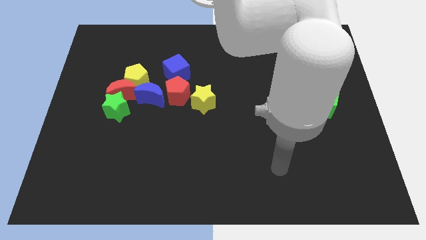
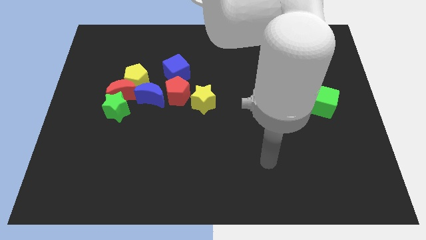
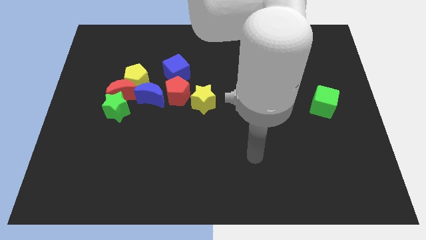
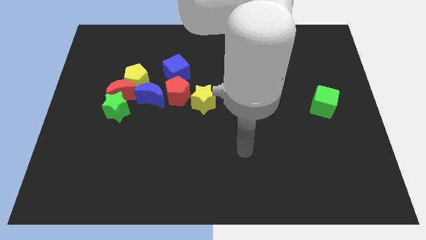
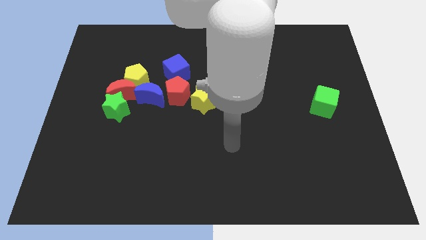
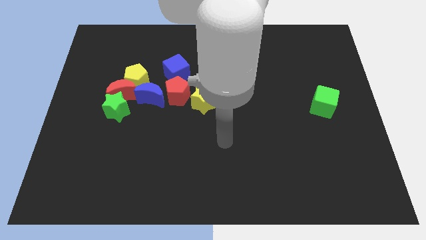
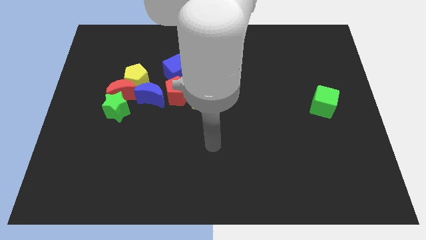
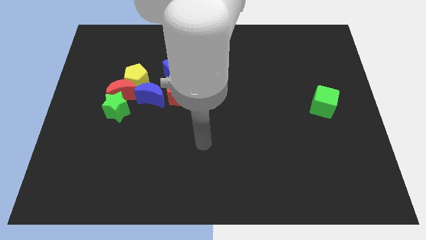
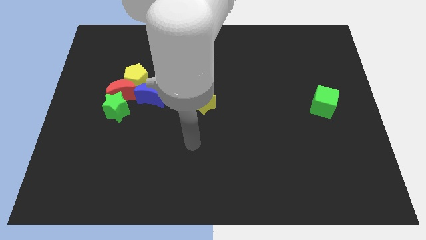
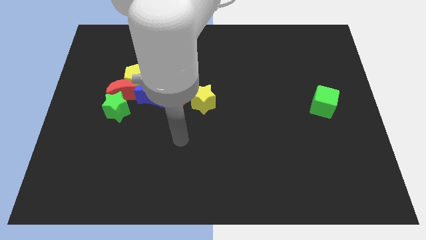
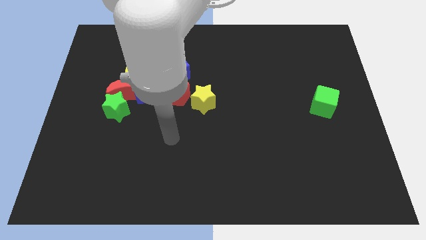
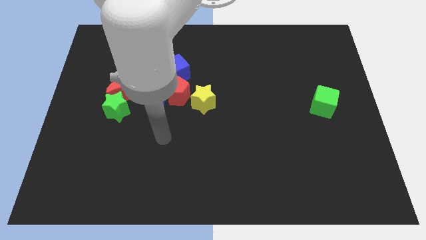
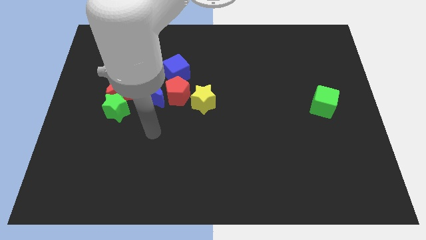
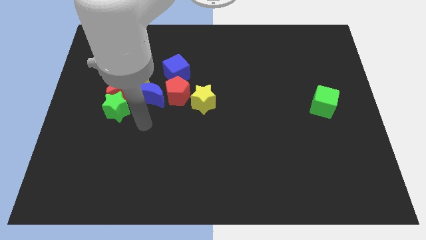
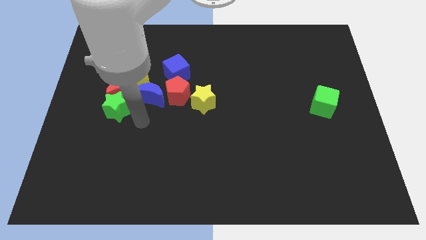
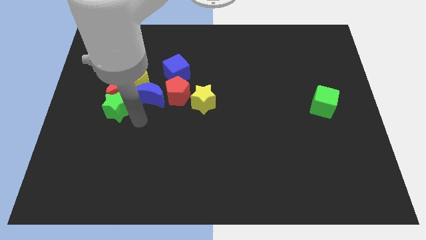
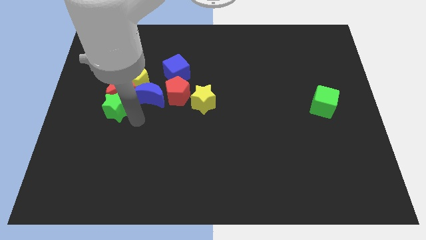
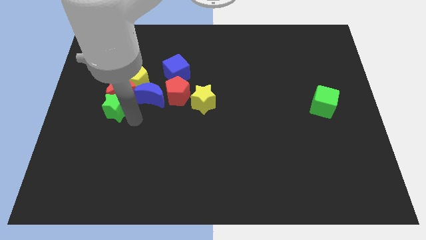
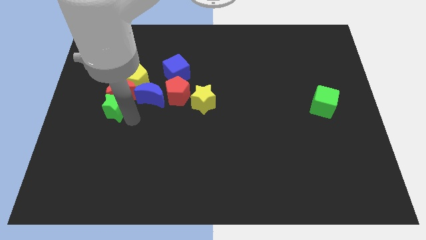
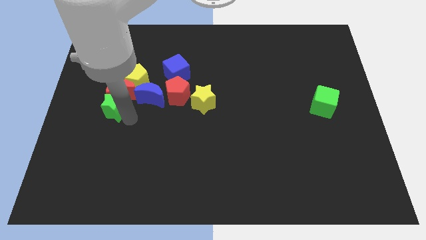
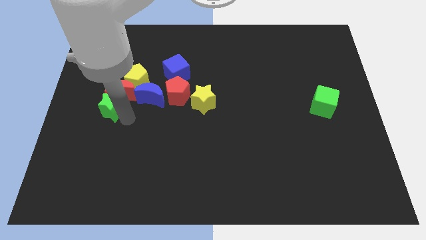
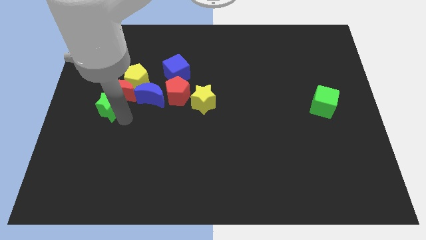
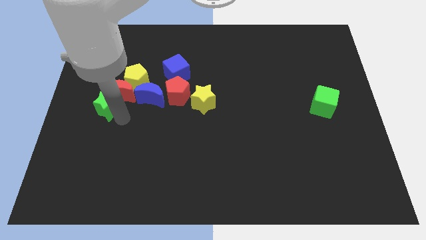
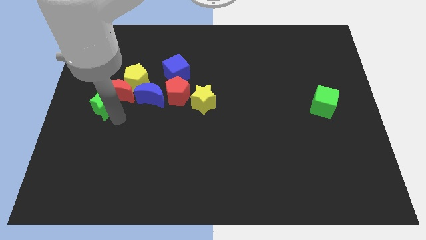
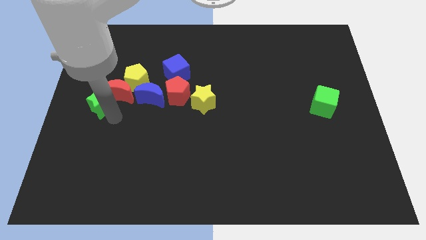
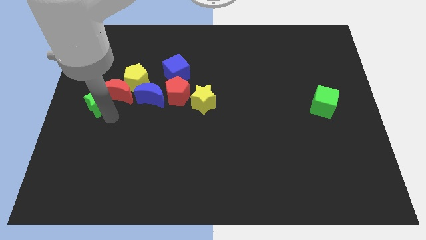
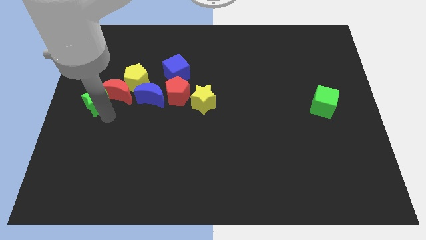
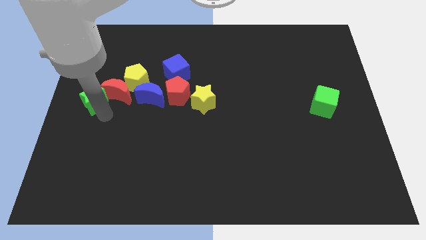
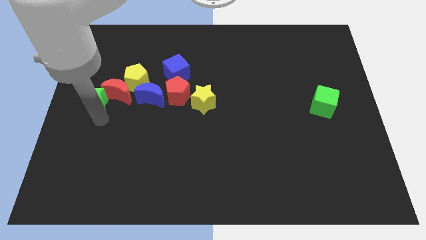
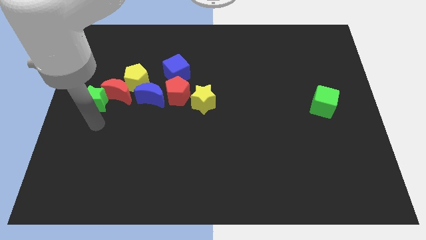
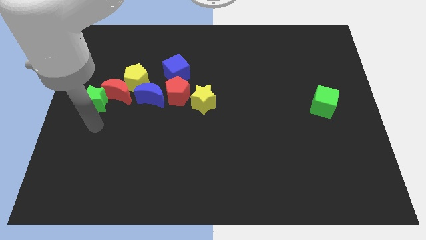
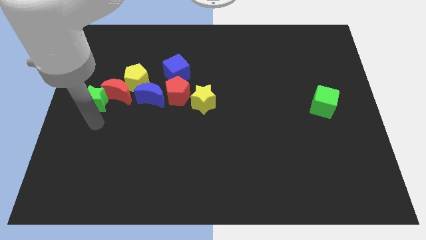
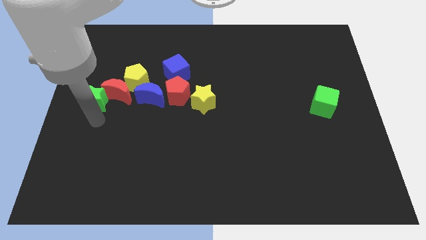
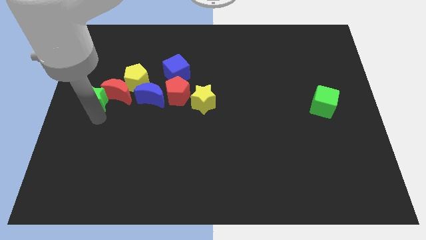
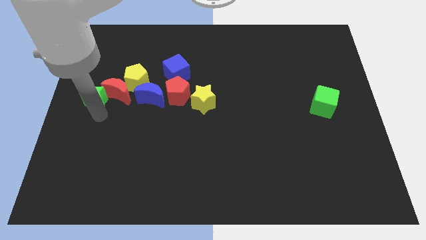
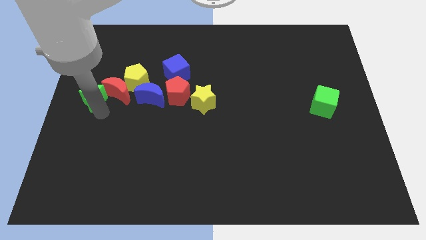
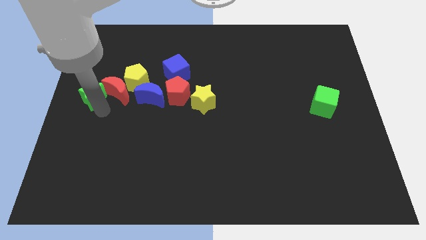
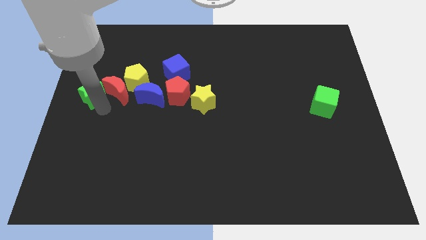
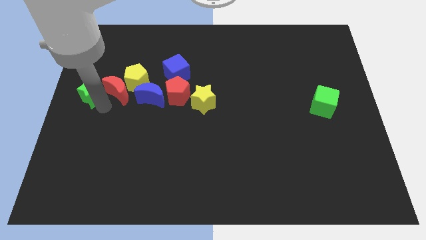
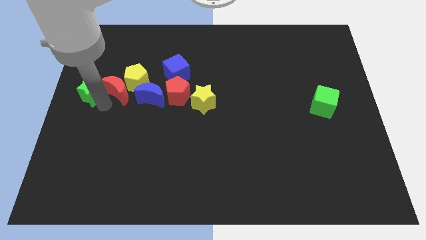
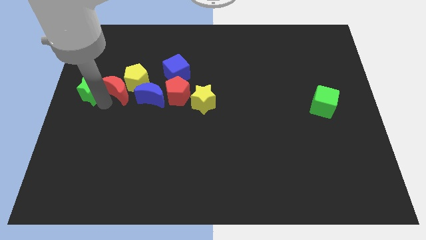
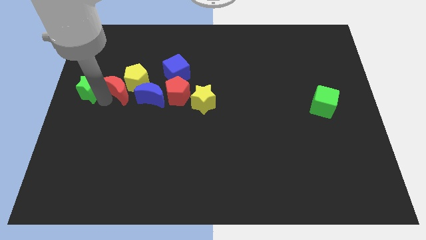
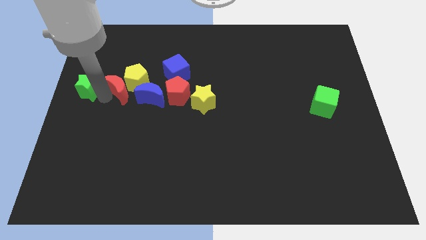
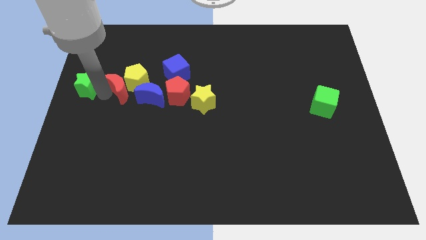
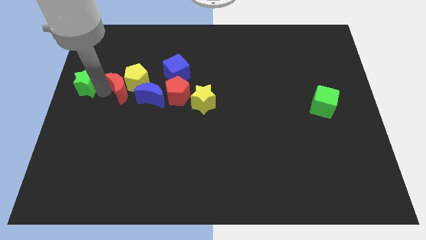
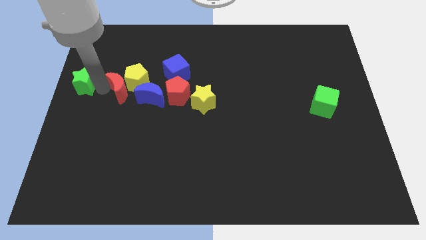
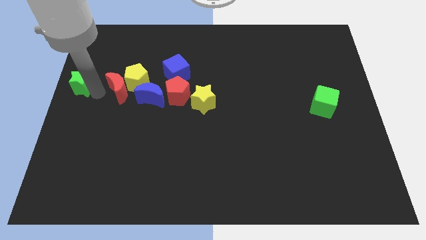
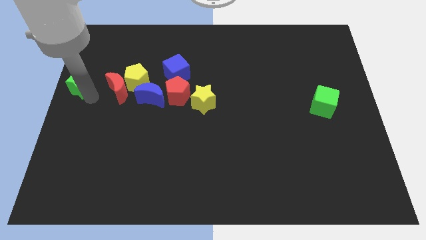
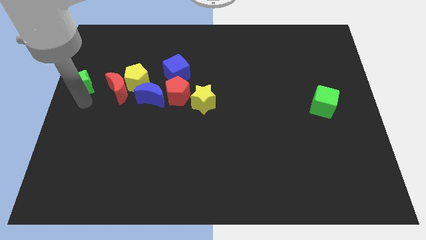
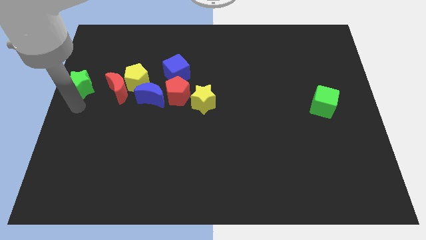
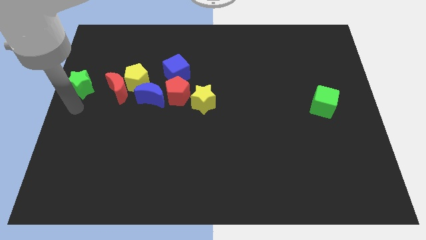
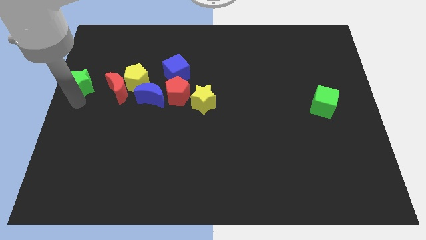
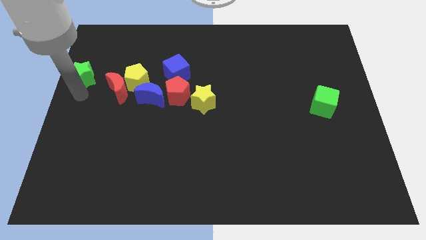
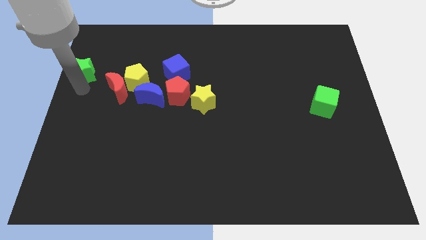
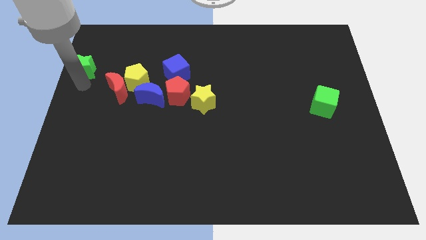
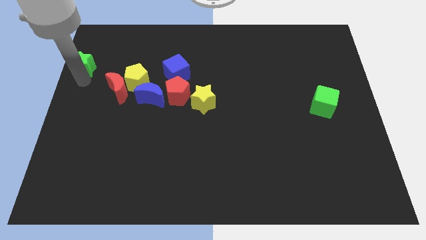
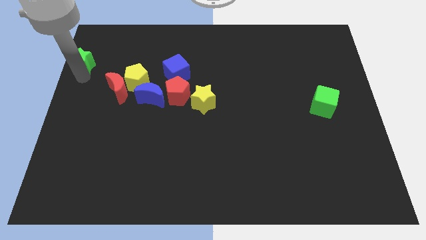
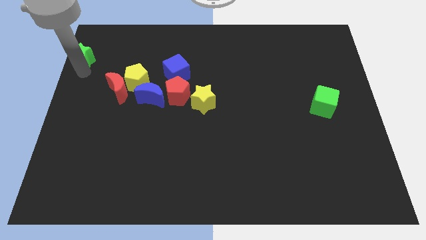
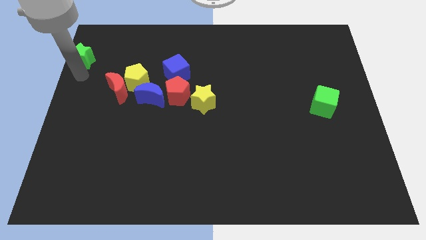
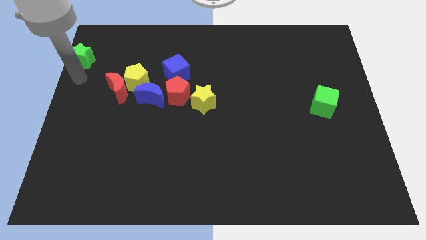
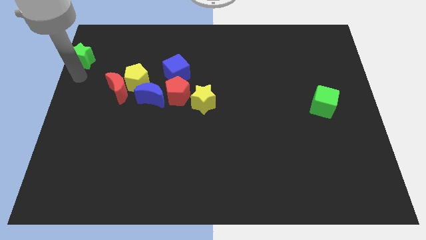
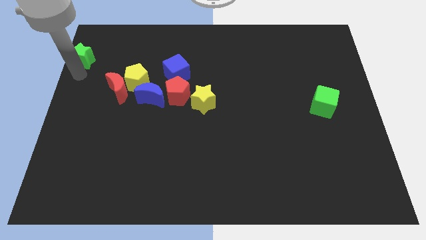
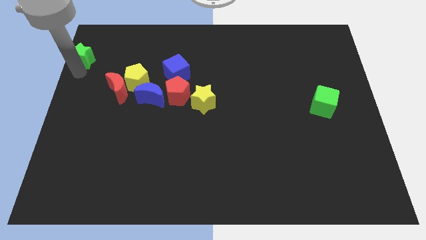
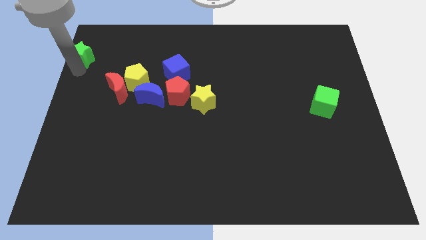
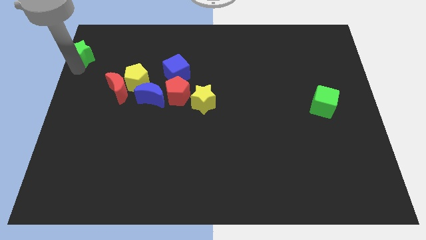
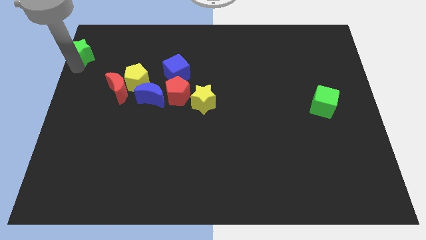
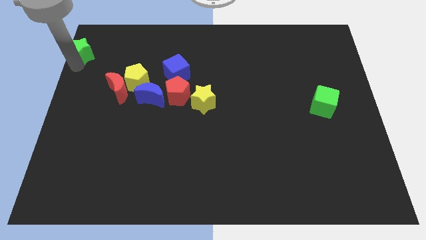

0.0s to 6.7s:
slide the green star to the top left

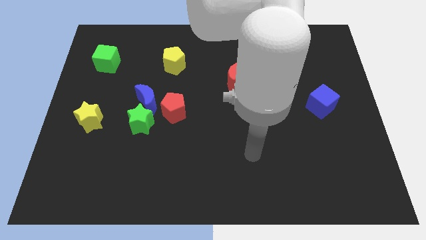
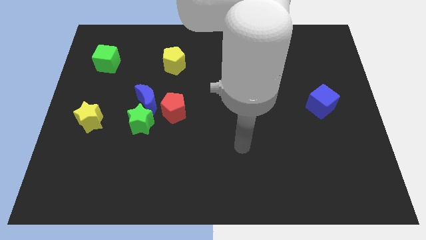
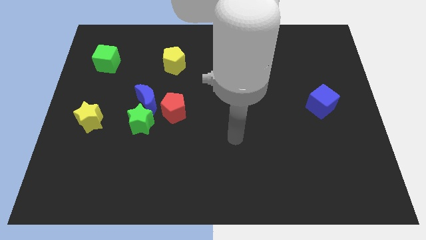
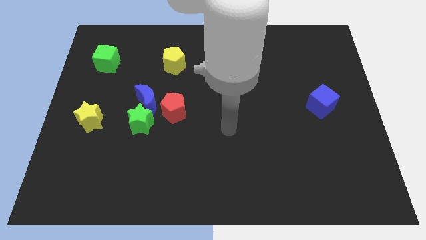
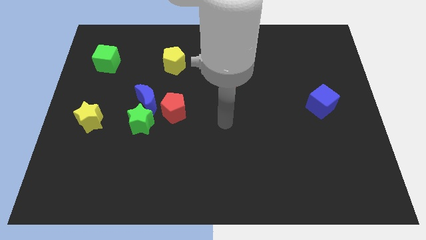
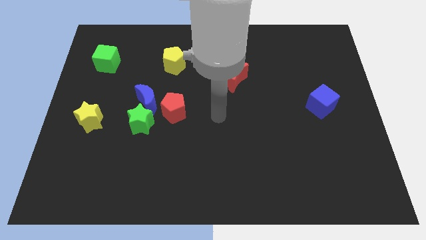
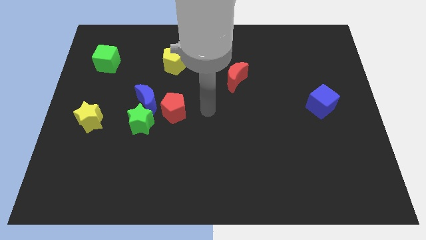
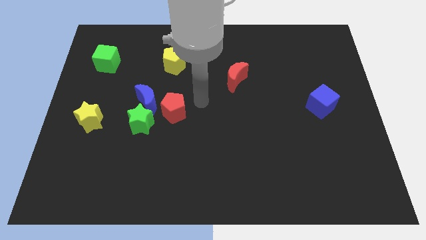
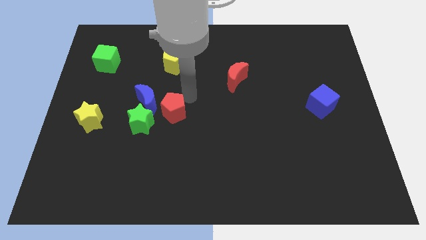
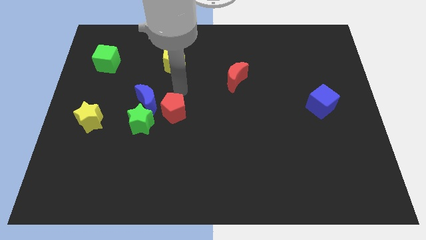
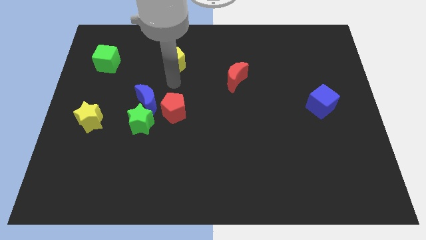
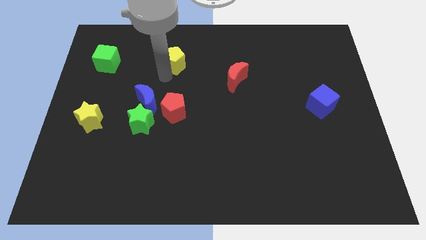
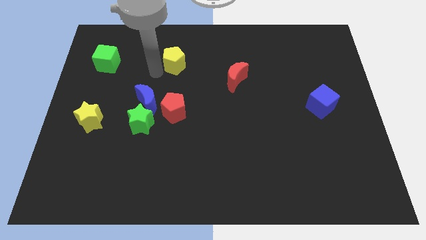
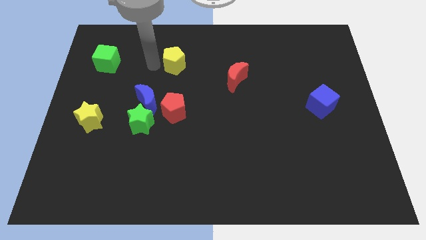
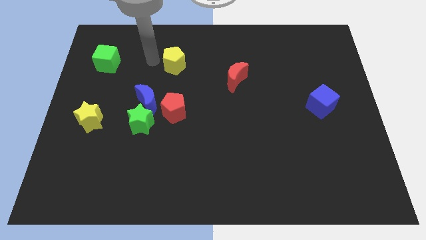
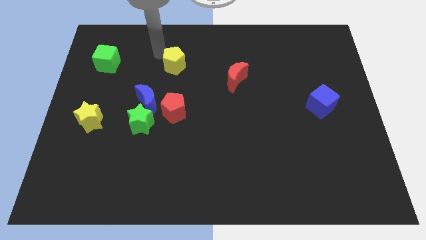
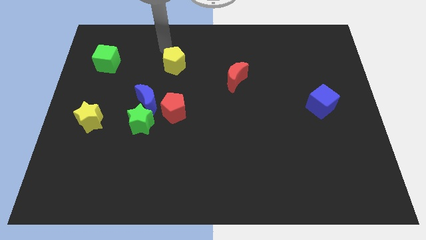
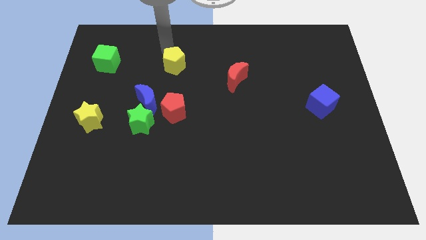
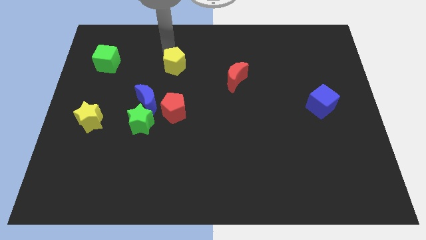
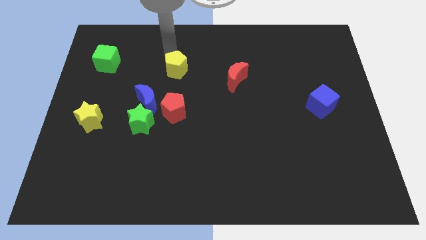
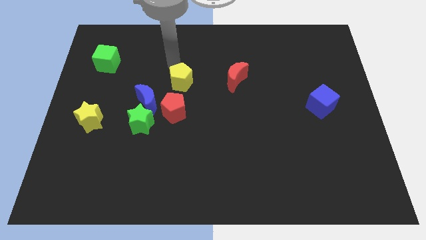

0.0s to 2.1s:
move the yellow pentagon to the center of the board
